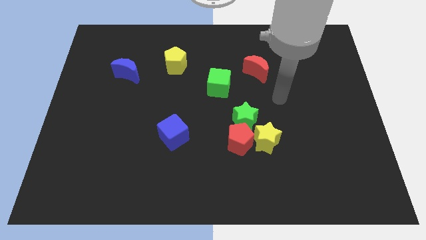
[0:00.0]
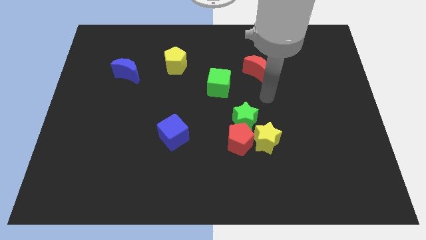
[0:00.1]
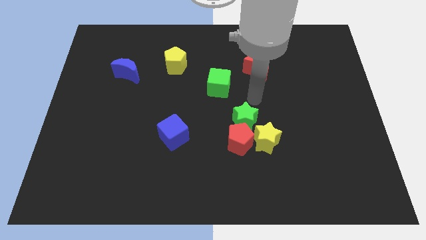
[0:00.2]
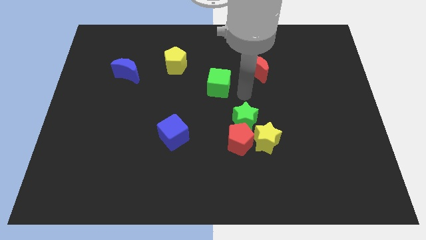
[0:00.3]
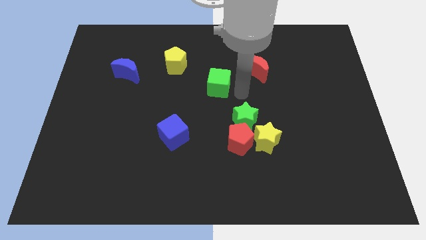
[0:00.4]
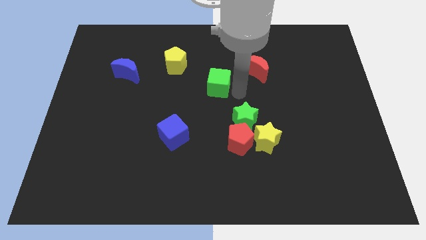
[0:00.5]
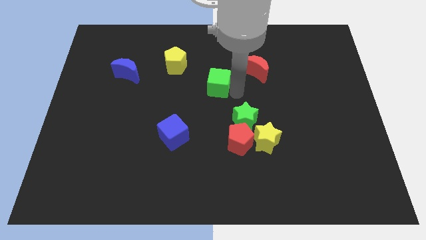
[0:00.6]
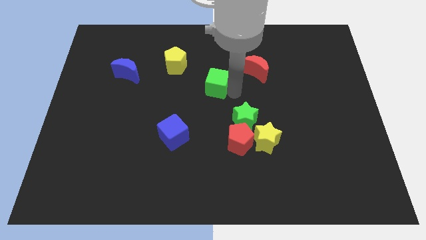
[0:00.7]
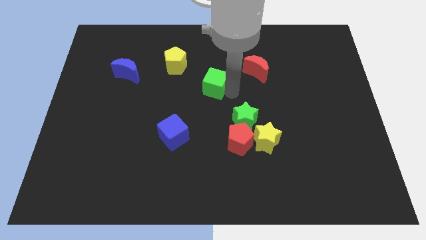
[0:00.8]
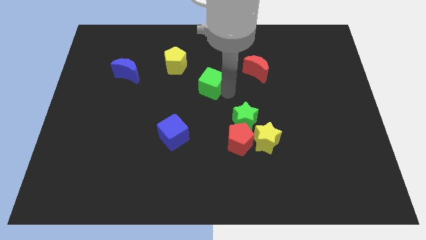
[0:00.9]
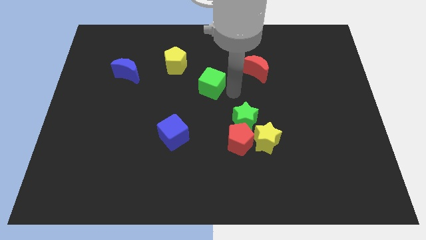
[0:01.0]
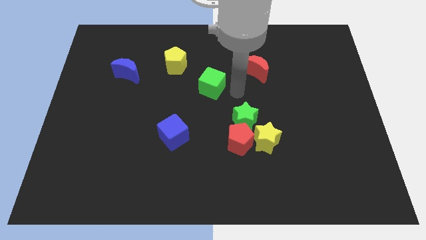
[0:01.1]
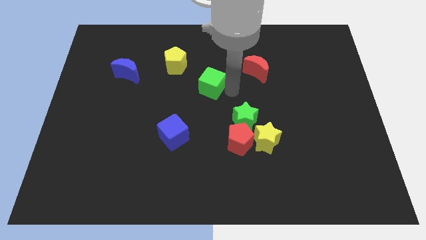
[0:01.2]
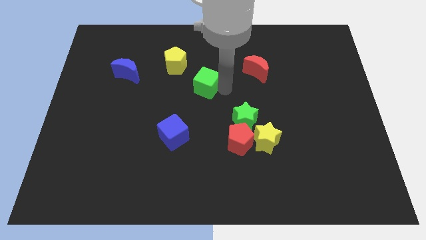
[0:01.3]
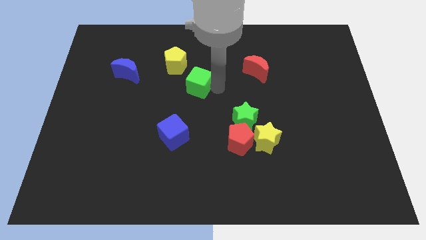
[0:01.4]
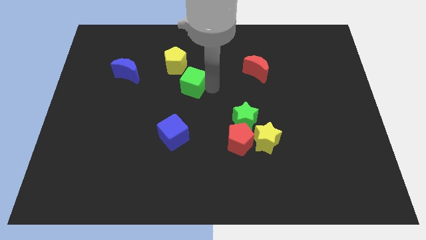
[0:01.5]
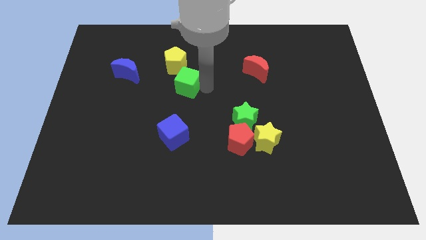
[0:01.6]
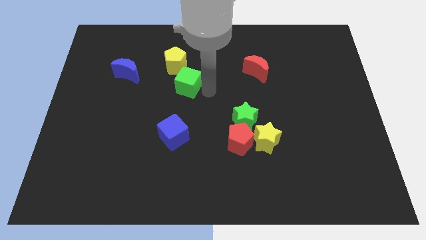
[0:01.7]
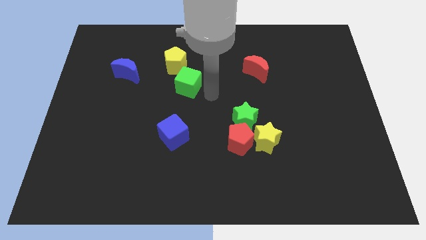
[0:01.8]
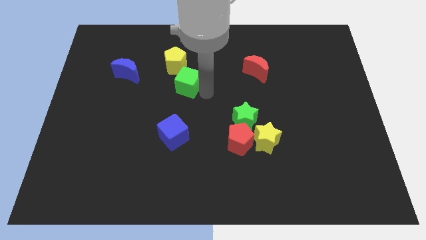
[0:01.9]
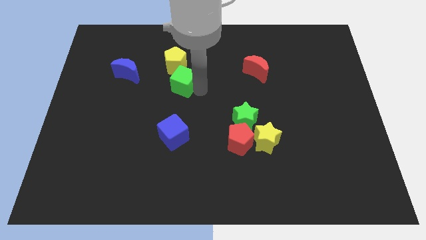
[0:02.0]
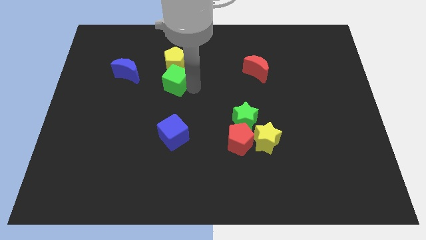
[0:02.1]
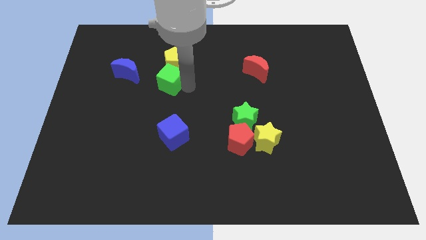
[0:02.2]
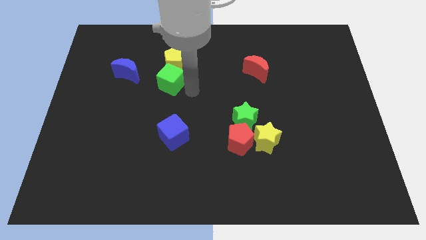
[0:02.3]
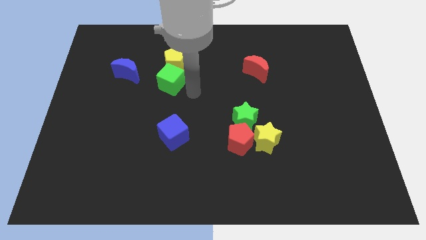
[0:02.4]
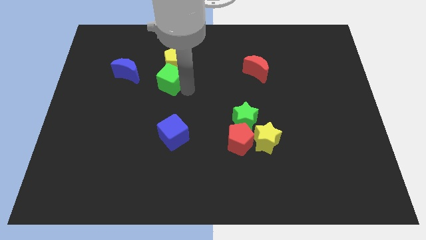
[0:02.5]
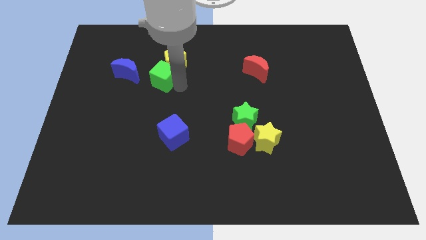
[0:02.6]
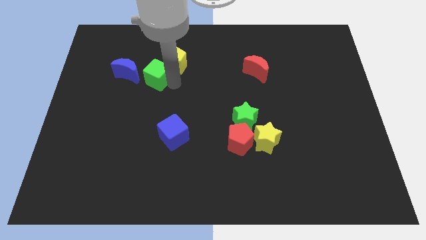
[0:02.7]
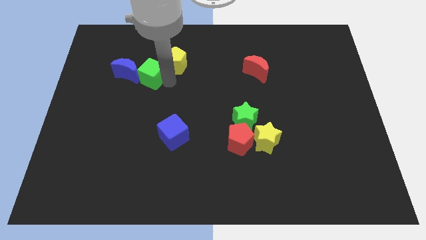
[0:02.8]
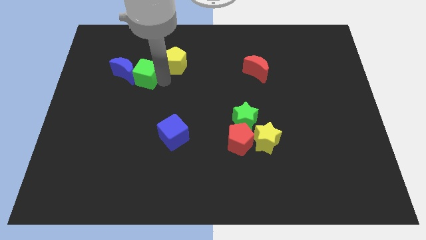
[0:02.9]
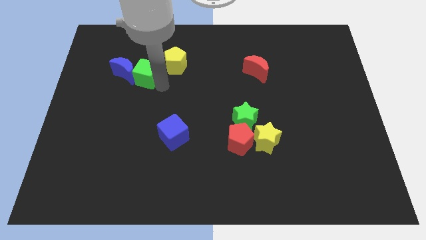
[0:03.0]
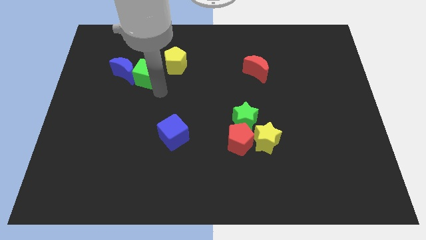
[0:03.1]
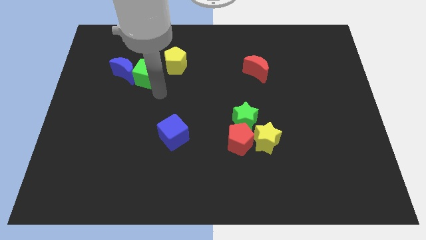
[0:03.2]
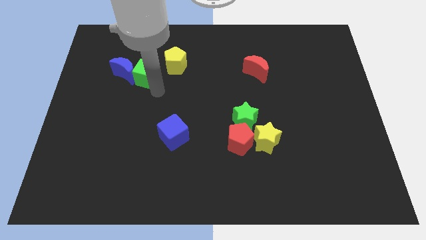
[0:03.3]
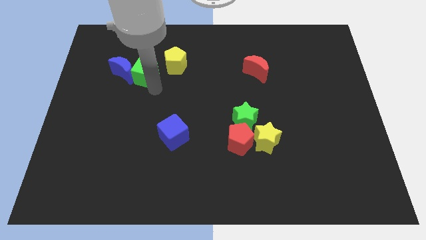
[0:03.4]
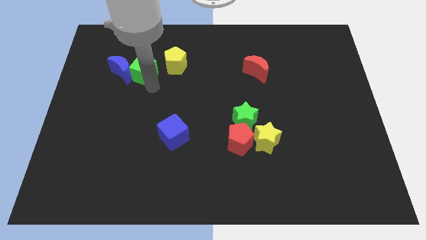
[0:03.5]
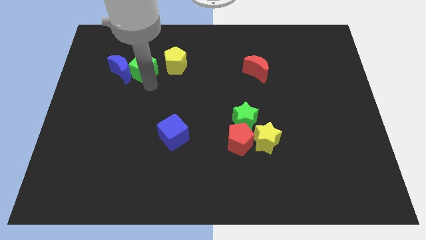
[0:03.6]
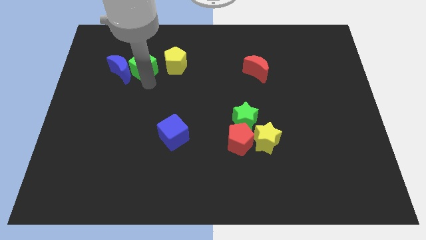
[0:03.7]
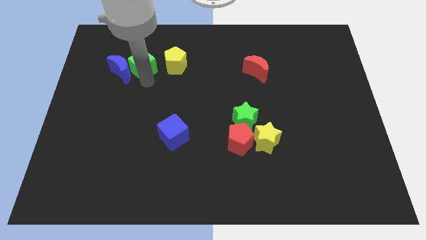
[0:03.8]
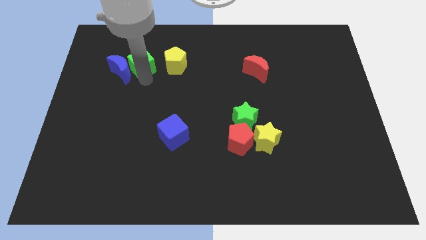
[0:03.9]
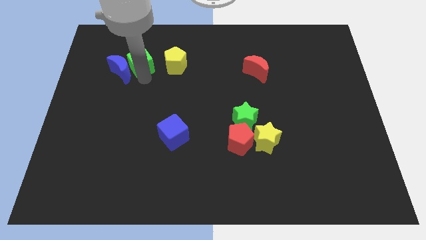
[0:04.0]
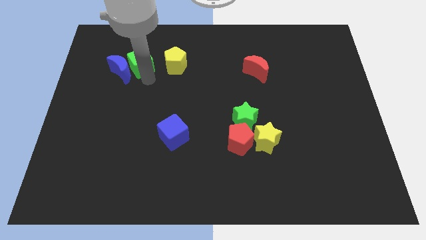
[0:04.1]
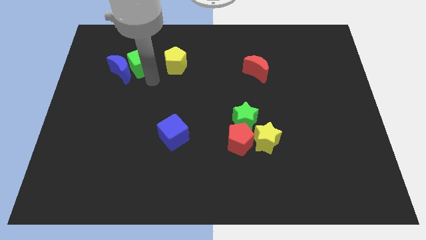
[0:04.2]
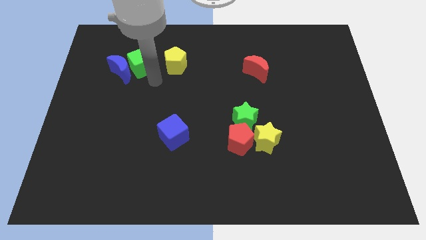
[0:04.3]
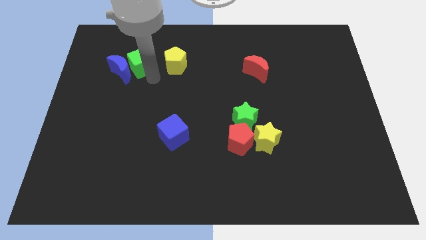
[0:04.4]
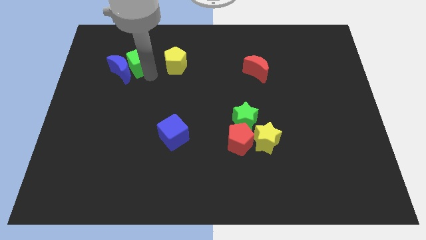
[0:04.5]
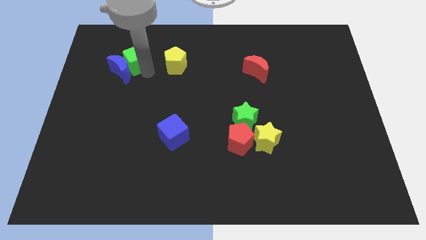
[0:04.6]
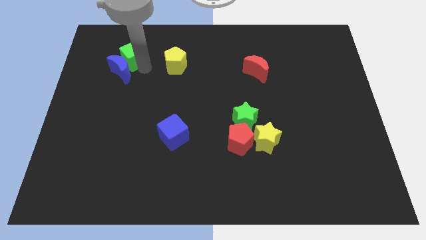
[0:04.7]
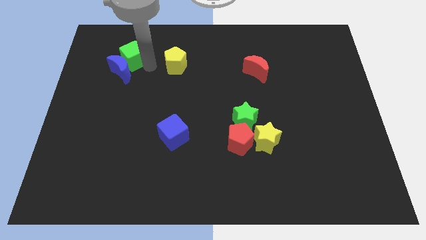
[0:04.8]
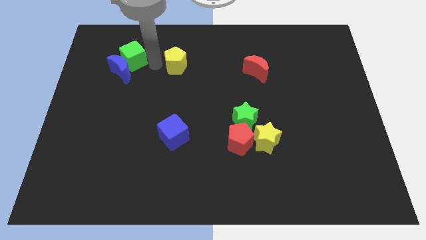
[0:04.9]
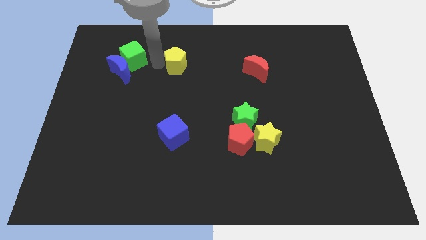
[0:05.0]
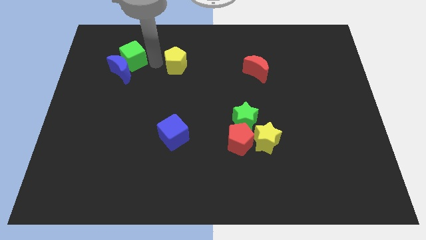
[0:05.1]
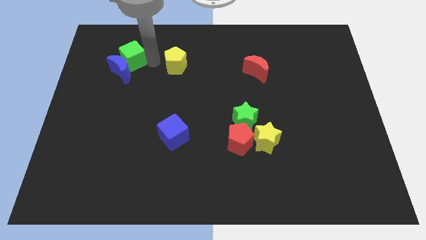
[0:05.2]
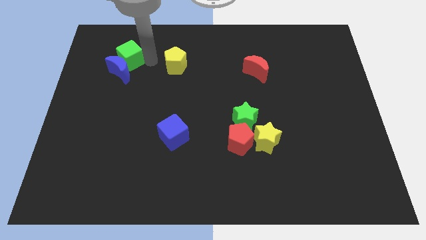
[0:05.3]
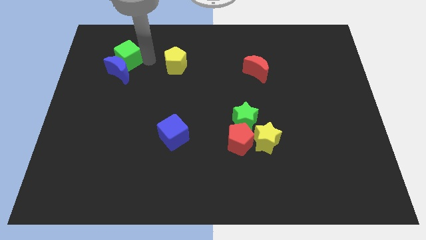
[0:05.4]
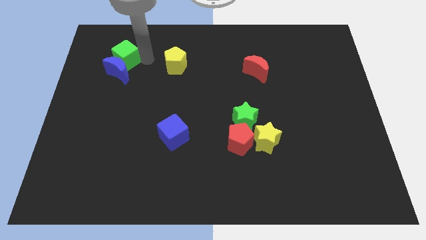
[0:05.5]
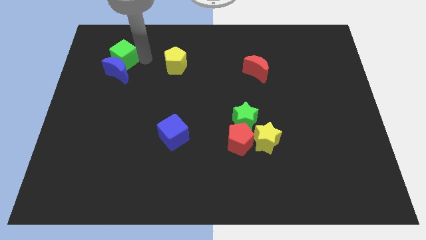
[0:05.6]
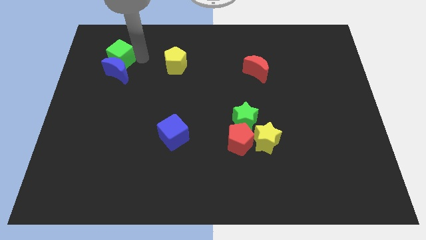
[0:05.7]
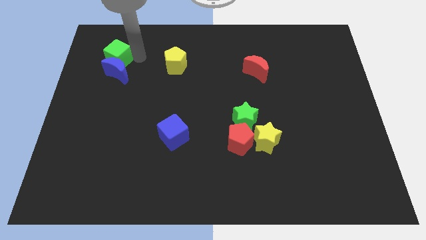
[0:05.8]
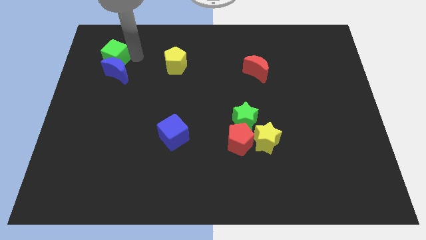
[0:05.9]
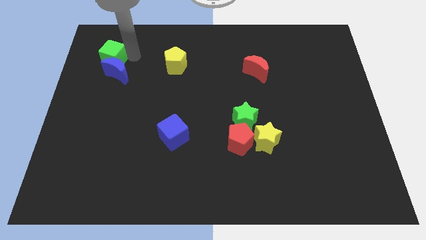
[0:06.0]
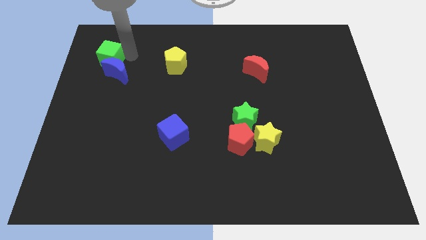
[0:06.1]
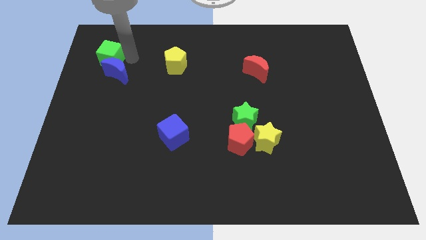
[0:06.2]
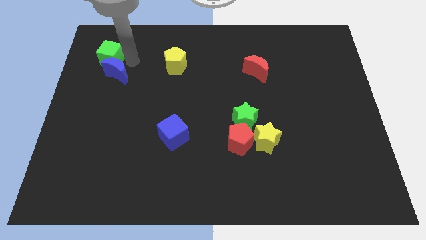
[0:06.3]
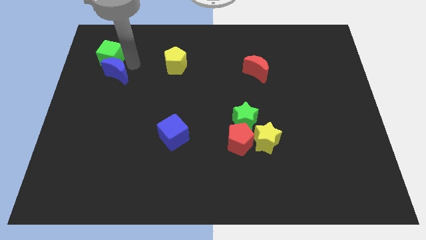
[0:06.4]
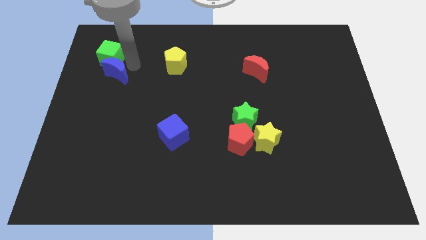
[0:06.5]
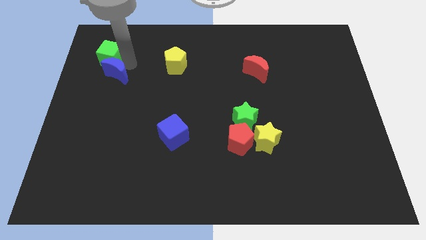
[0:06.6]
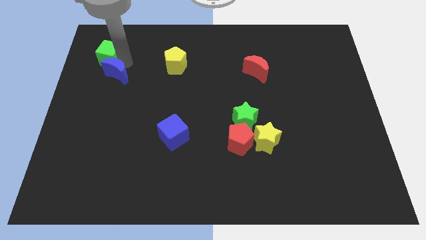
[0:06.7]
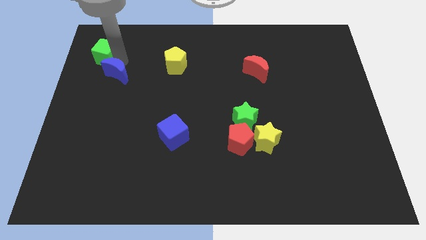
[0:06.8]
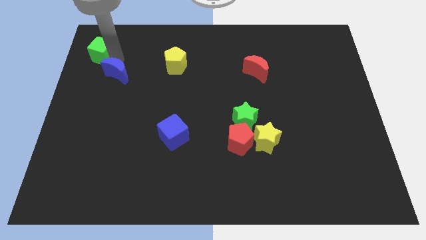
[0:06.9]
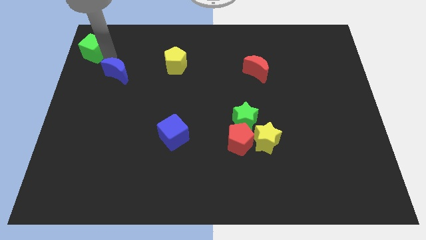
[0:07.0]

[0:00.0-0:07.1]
put the green cube to the upper left corner
